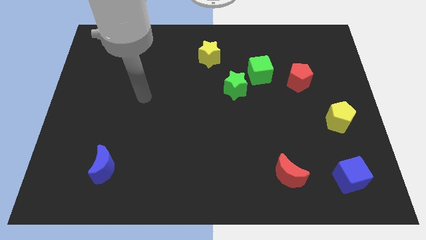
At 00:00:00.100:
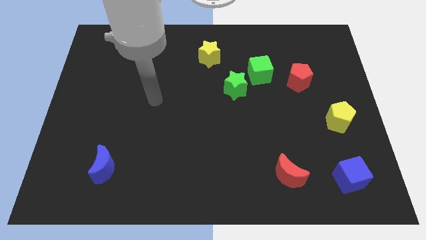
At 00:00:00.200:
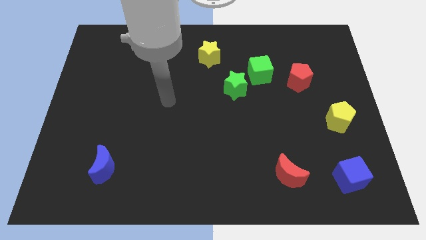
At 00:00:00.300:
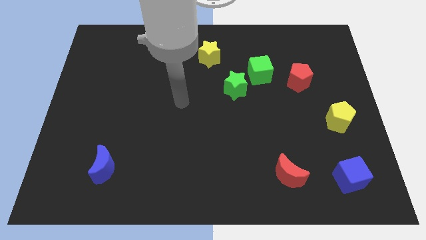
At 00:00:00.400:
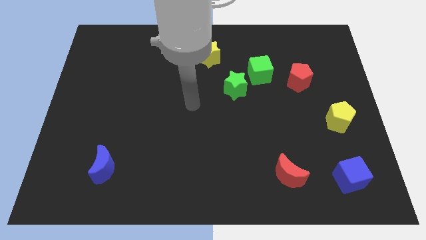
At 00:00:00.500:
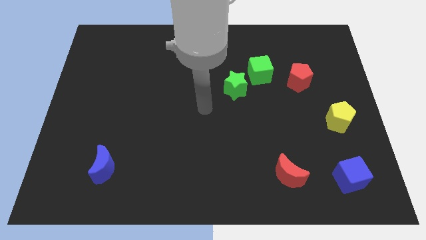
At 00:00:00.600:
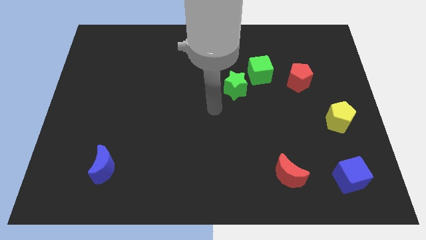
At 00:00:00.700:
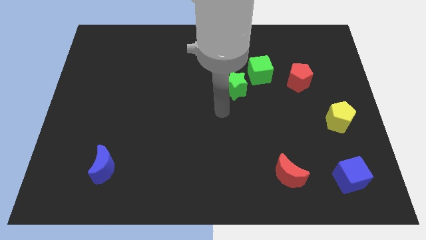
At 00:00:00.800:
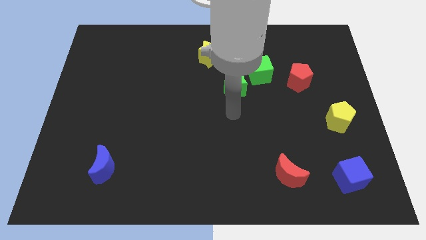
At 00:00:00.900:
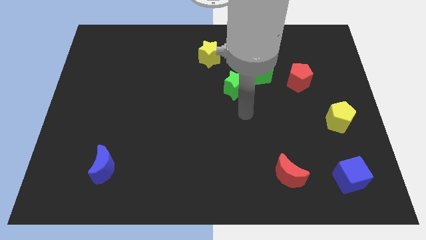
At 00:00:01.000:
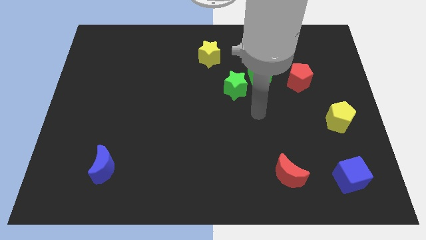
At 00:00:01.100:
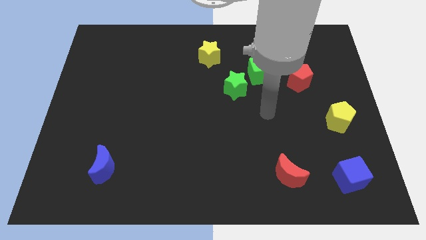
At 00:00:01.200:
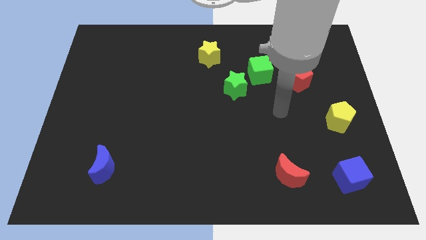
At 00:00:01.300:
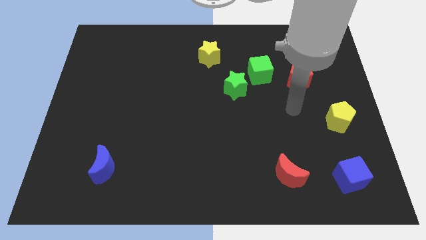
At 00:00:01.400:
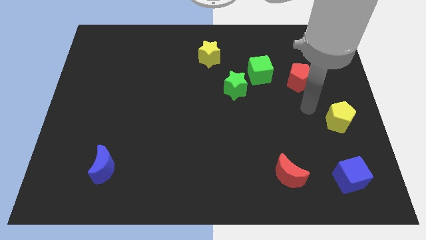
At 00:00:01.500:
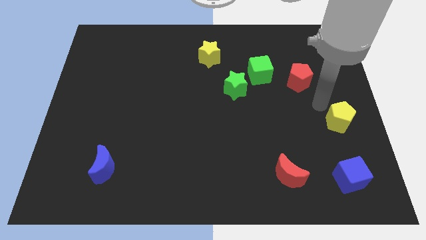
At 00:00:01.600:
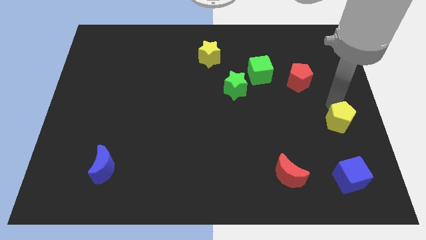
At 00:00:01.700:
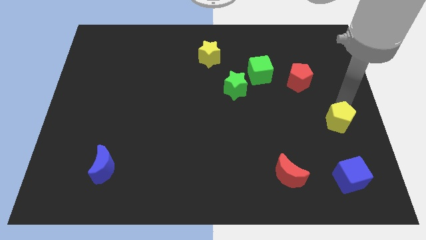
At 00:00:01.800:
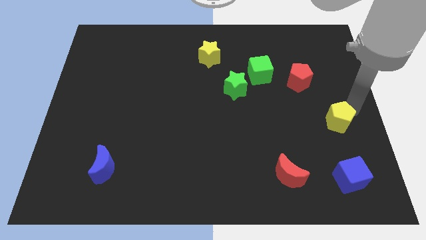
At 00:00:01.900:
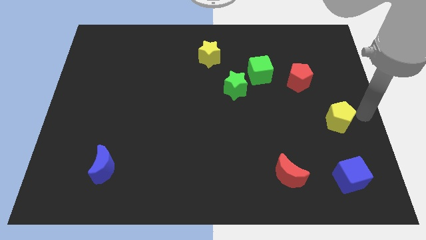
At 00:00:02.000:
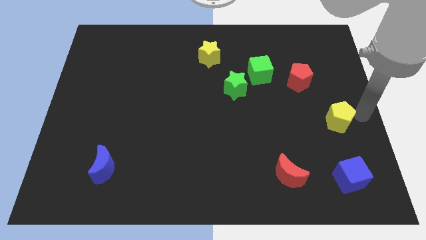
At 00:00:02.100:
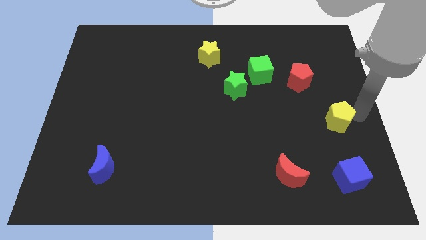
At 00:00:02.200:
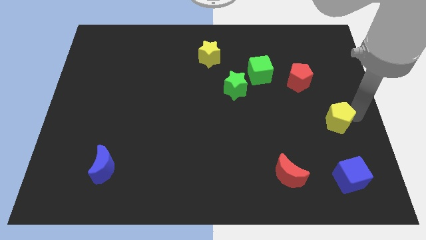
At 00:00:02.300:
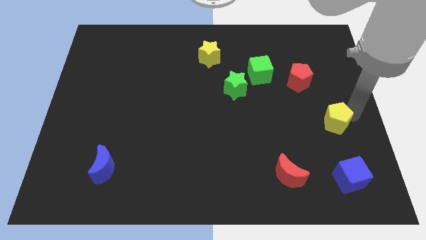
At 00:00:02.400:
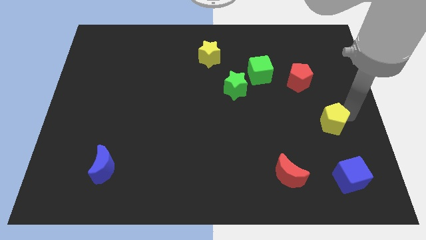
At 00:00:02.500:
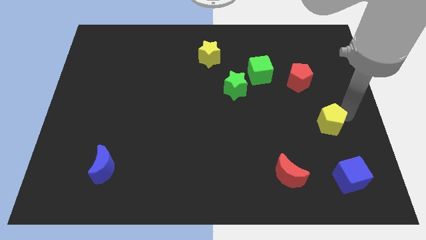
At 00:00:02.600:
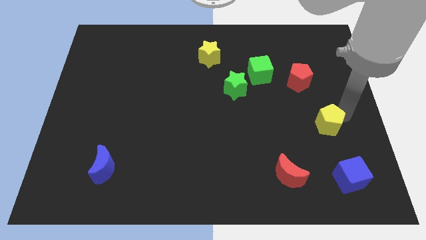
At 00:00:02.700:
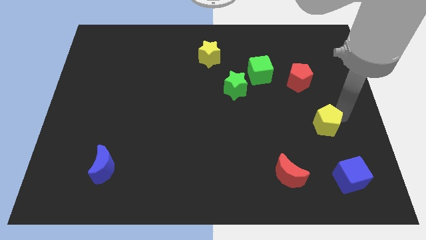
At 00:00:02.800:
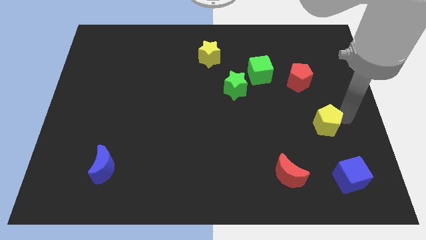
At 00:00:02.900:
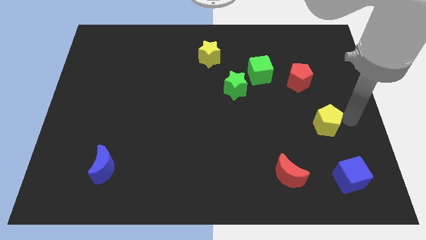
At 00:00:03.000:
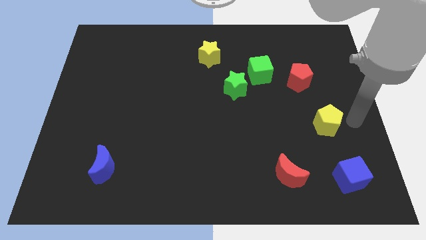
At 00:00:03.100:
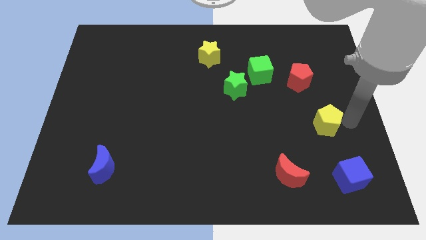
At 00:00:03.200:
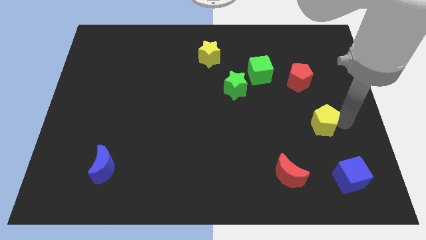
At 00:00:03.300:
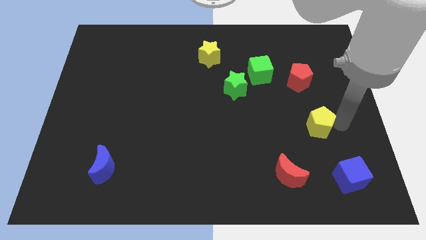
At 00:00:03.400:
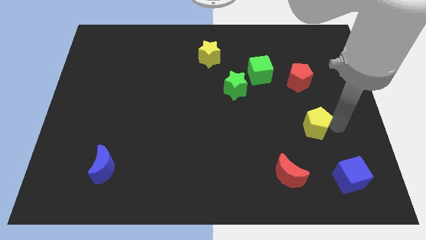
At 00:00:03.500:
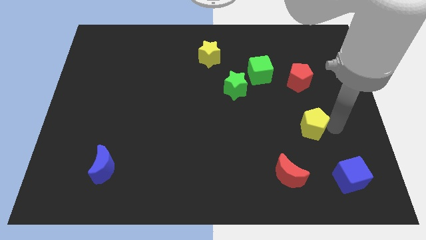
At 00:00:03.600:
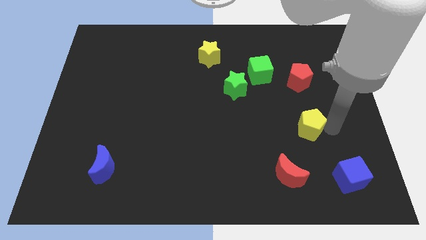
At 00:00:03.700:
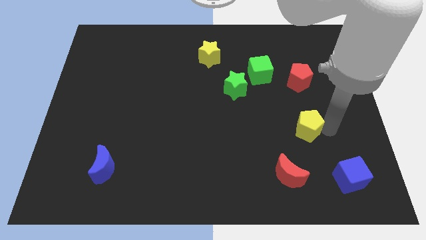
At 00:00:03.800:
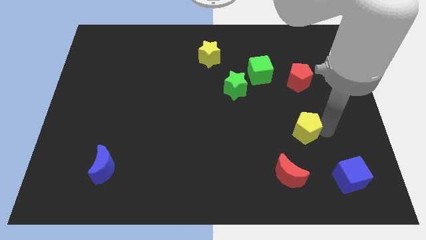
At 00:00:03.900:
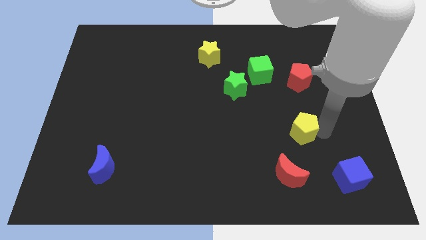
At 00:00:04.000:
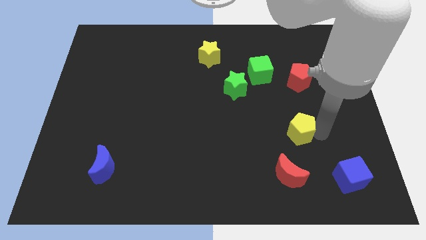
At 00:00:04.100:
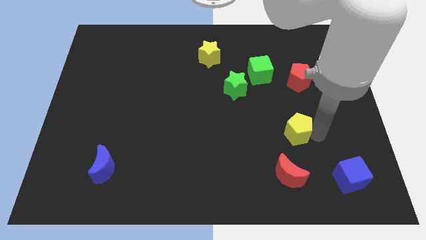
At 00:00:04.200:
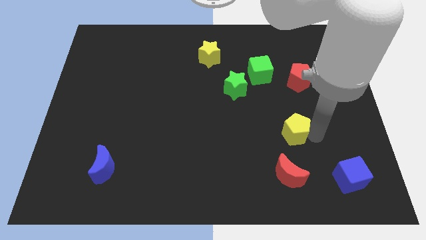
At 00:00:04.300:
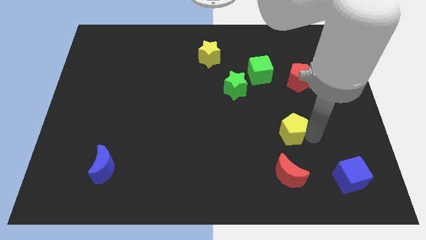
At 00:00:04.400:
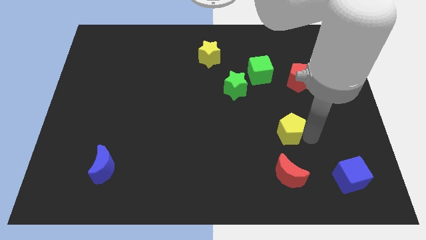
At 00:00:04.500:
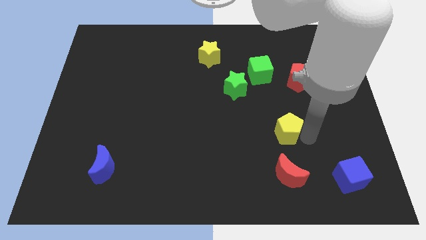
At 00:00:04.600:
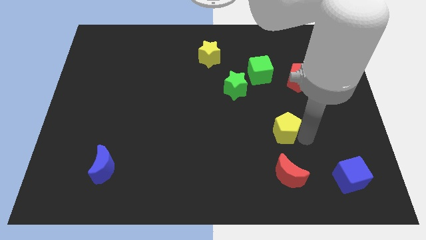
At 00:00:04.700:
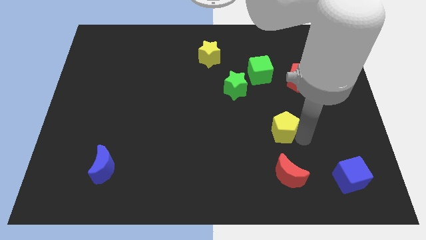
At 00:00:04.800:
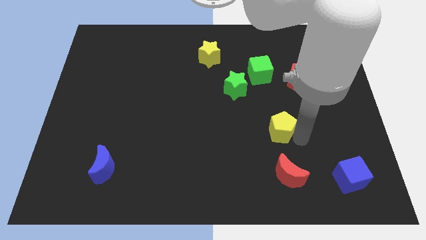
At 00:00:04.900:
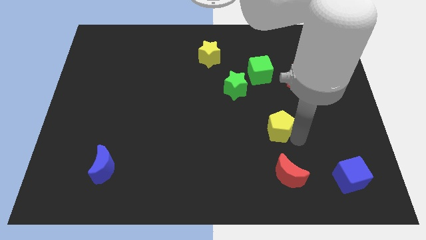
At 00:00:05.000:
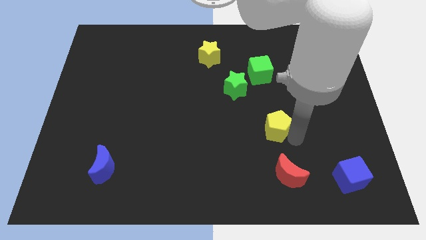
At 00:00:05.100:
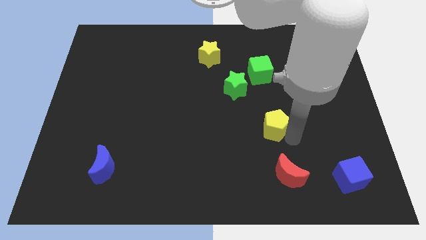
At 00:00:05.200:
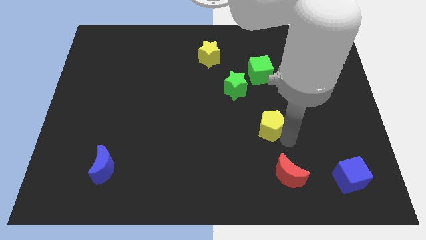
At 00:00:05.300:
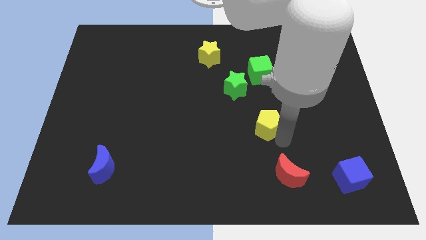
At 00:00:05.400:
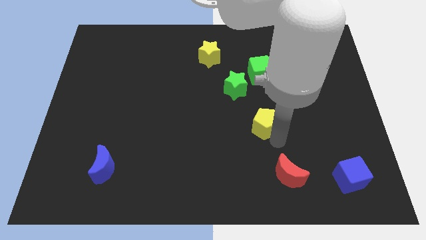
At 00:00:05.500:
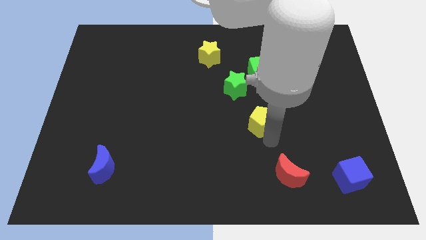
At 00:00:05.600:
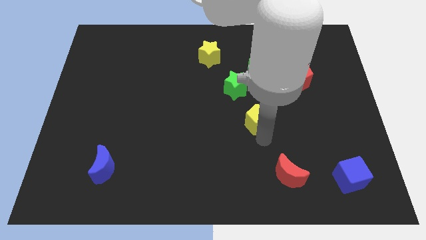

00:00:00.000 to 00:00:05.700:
put the yellow pentagon to the center of the board
